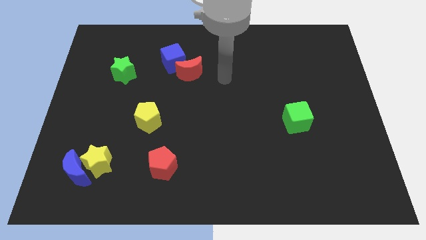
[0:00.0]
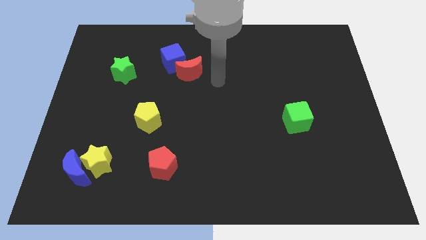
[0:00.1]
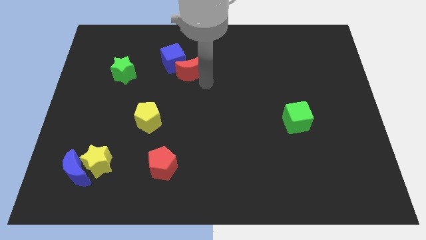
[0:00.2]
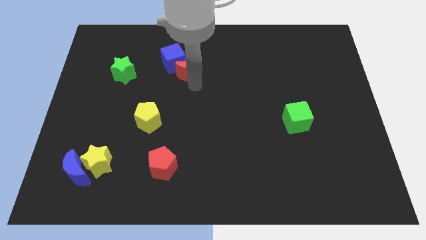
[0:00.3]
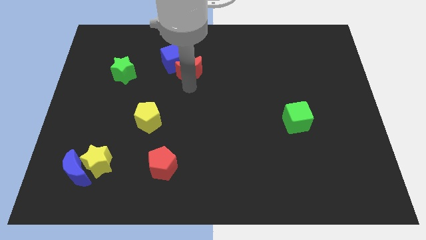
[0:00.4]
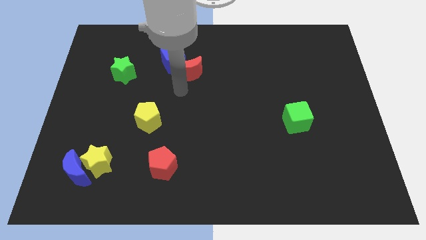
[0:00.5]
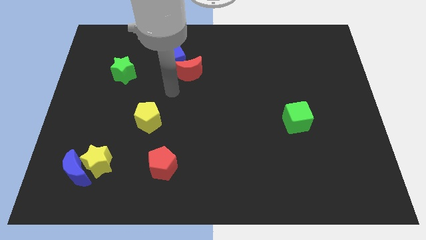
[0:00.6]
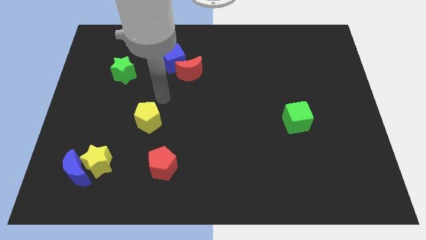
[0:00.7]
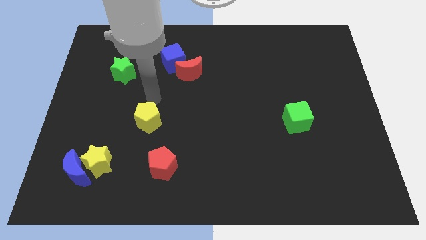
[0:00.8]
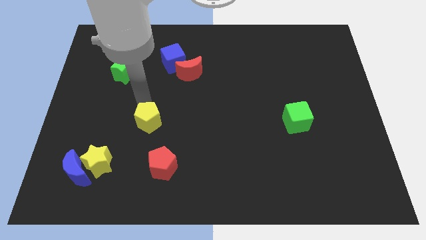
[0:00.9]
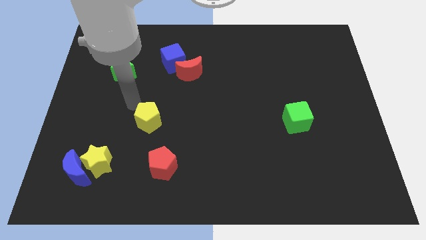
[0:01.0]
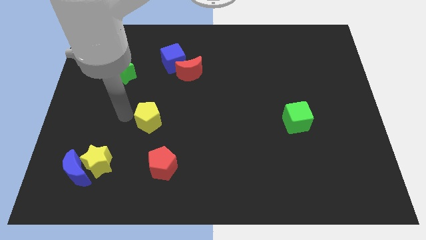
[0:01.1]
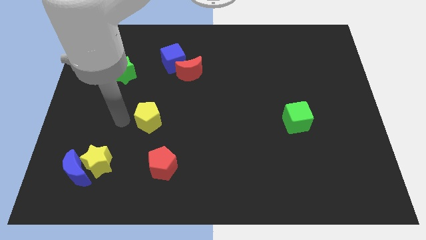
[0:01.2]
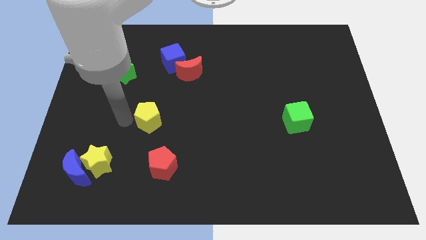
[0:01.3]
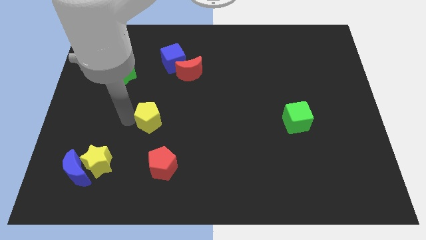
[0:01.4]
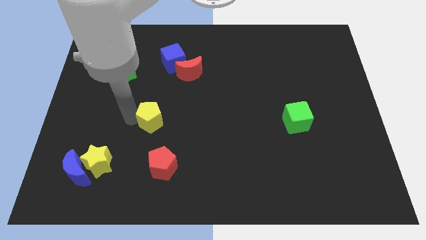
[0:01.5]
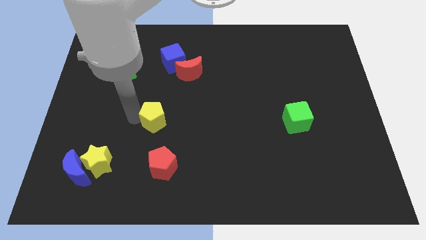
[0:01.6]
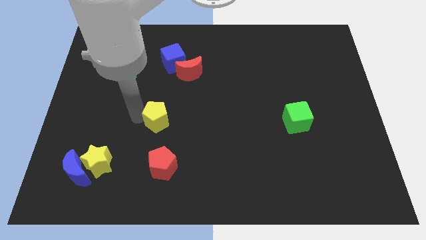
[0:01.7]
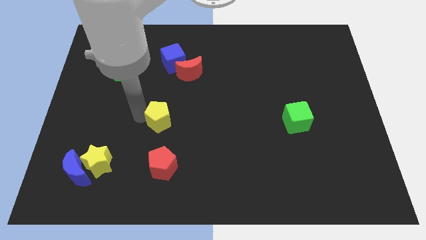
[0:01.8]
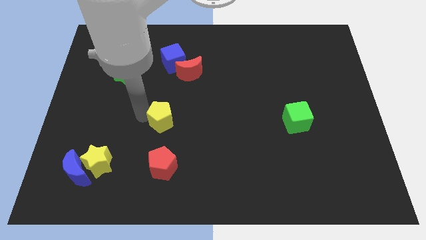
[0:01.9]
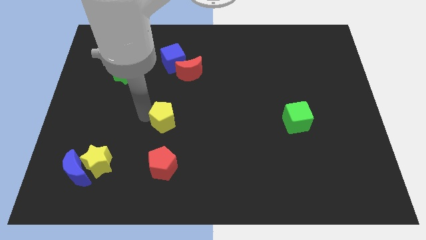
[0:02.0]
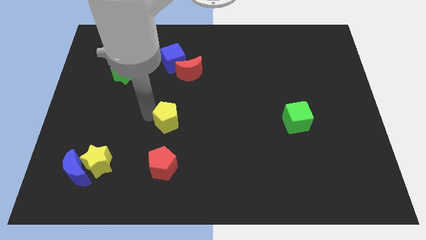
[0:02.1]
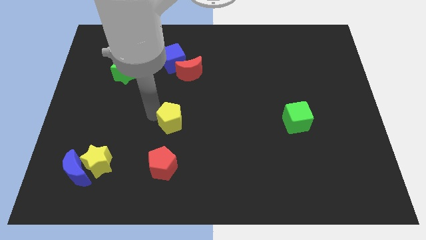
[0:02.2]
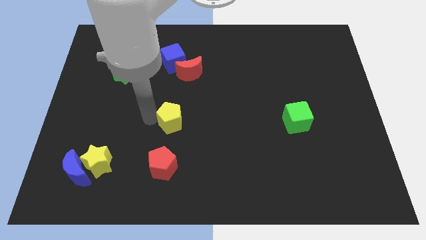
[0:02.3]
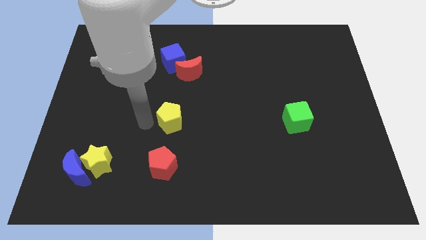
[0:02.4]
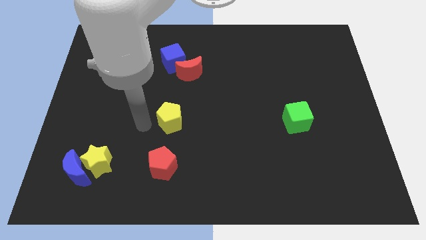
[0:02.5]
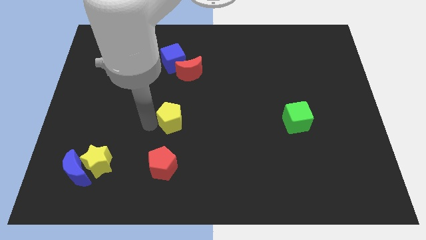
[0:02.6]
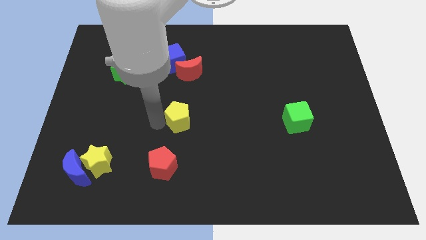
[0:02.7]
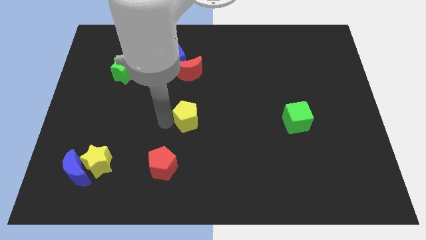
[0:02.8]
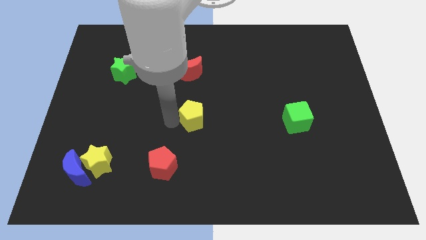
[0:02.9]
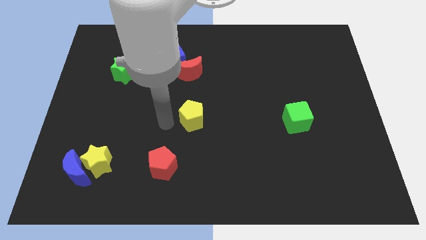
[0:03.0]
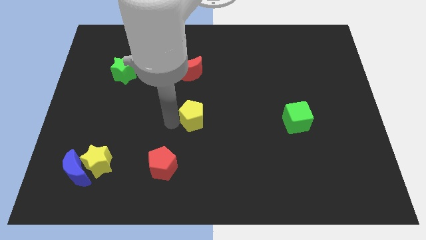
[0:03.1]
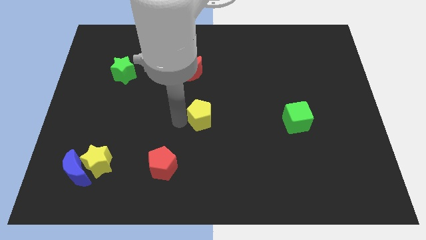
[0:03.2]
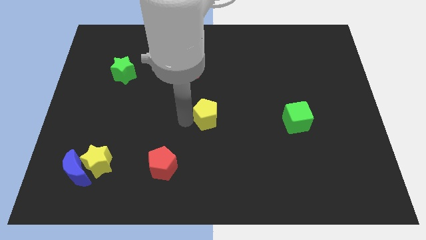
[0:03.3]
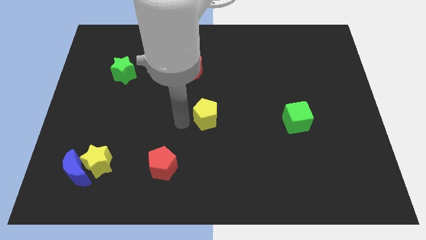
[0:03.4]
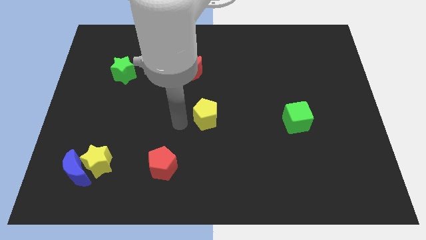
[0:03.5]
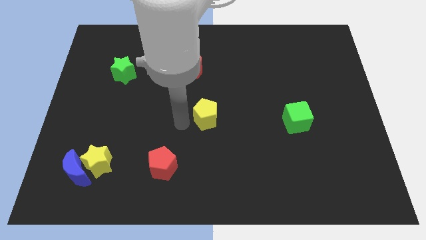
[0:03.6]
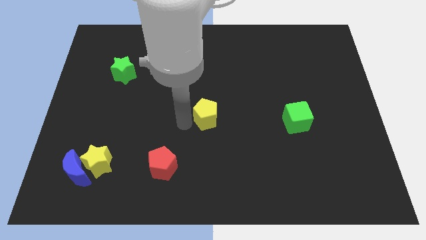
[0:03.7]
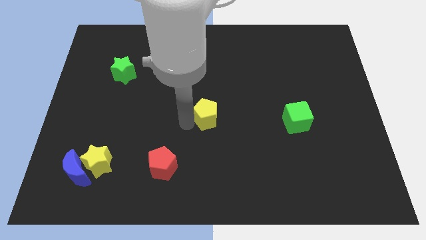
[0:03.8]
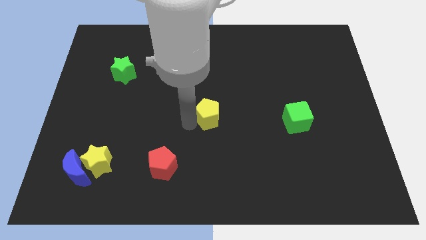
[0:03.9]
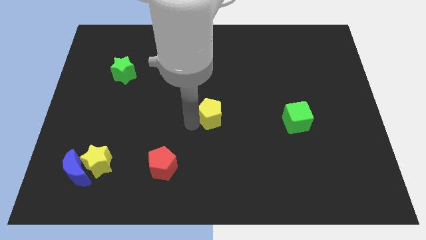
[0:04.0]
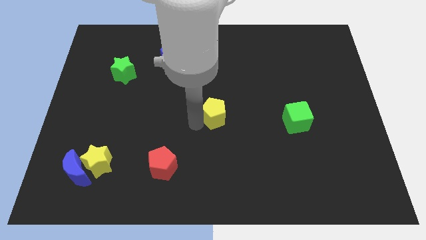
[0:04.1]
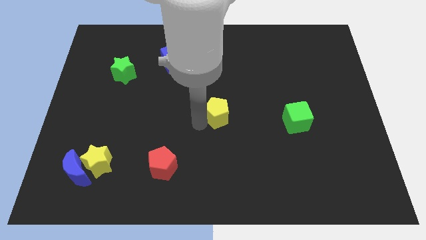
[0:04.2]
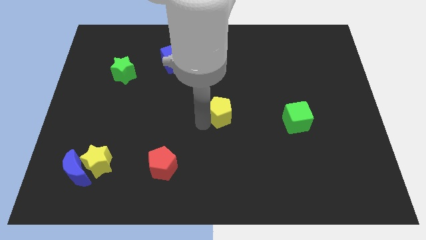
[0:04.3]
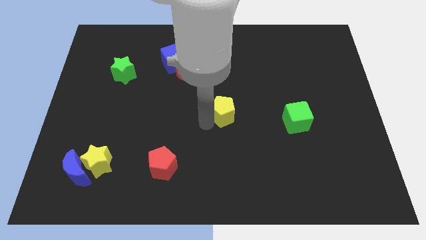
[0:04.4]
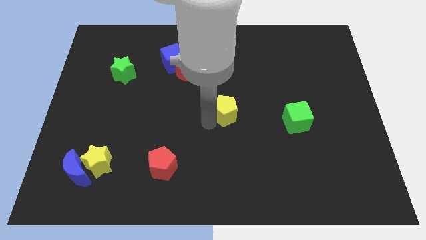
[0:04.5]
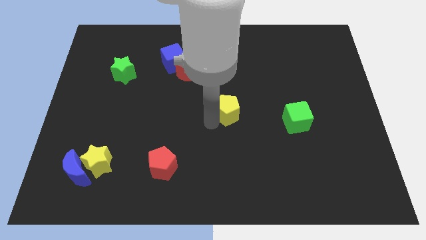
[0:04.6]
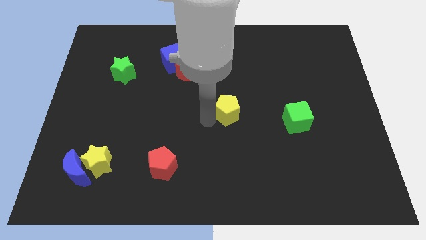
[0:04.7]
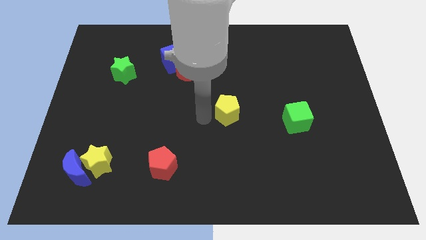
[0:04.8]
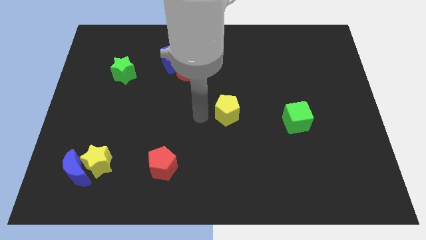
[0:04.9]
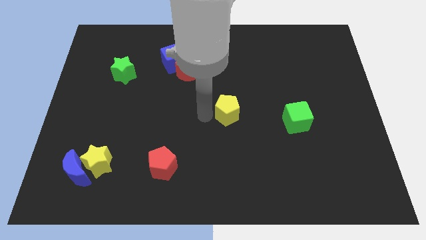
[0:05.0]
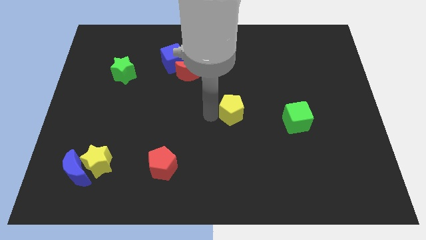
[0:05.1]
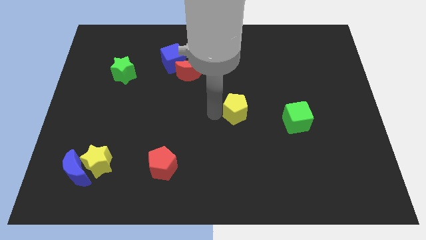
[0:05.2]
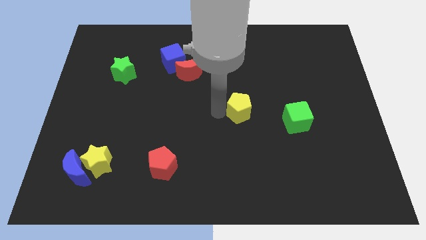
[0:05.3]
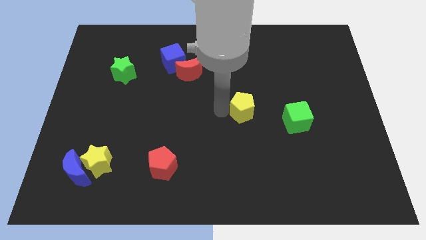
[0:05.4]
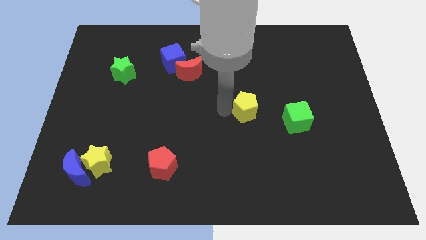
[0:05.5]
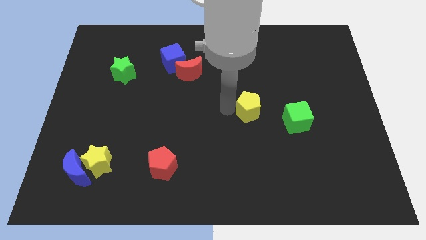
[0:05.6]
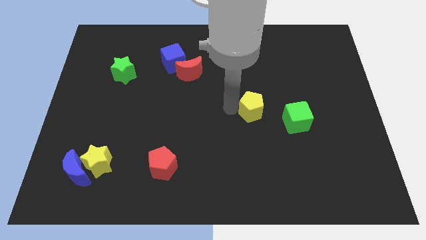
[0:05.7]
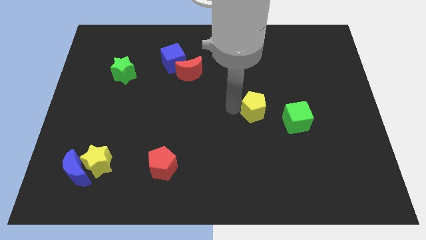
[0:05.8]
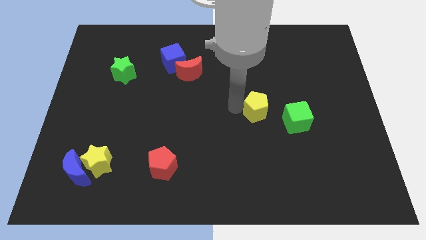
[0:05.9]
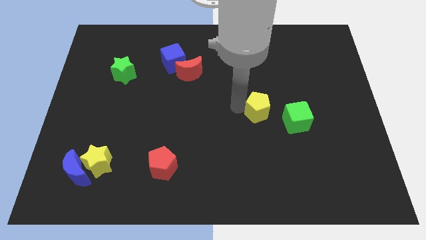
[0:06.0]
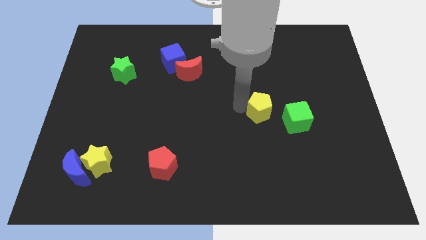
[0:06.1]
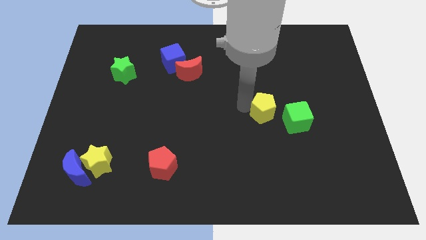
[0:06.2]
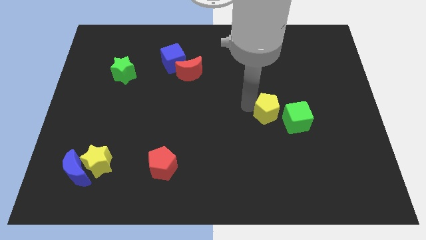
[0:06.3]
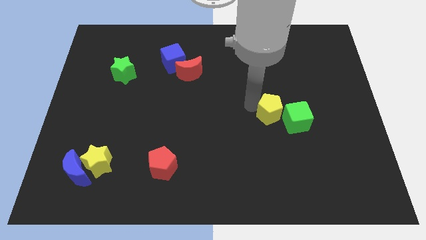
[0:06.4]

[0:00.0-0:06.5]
slide the yellow pentagon next to the green cube

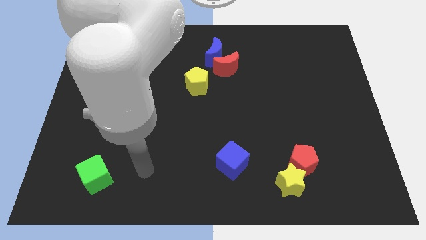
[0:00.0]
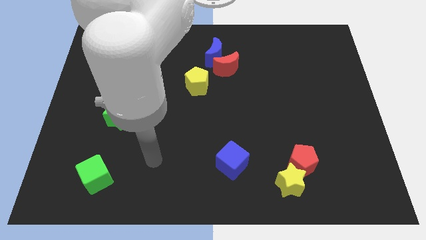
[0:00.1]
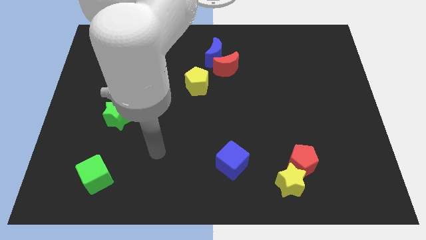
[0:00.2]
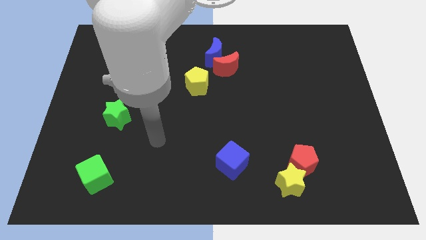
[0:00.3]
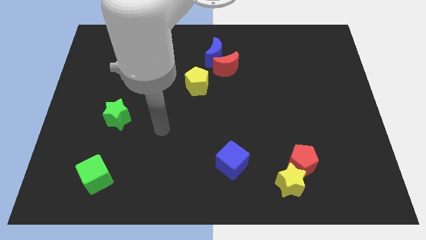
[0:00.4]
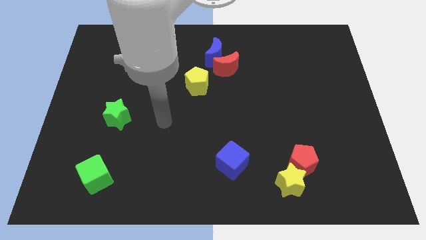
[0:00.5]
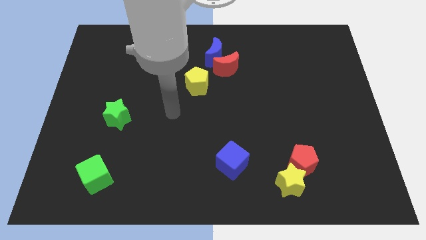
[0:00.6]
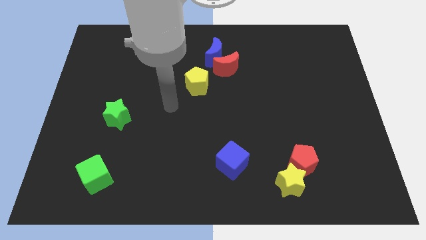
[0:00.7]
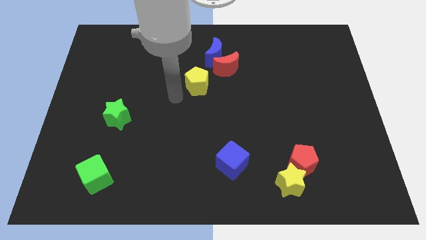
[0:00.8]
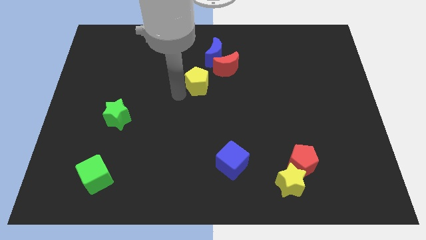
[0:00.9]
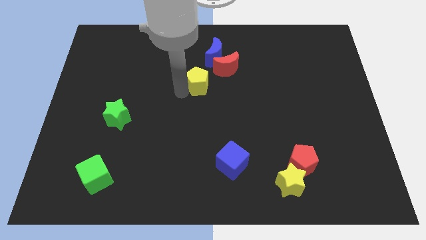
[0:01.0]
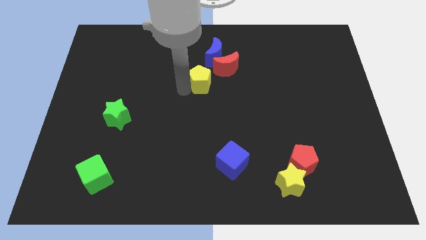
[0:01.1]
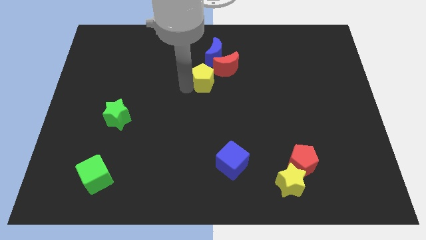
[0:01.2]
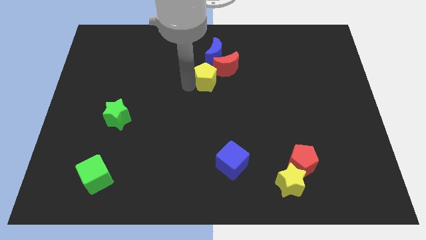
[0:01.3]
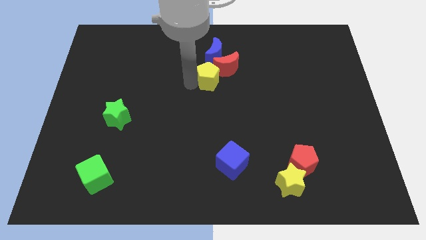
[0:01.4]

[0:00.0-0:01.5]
move the yellow pentagon next to the red moon
